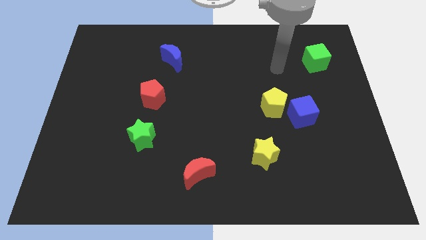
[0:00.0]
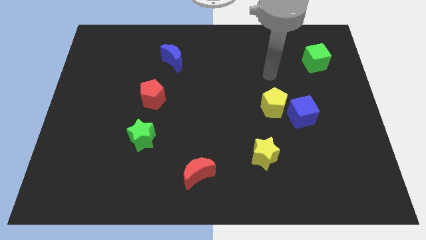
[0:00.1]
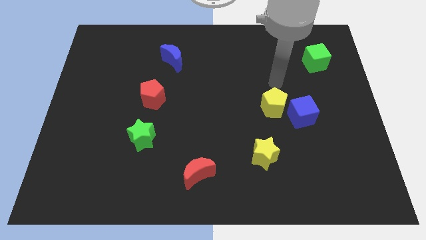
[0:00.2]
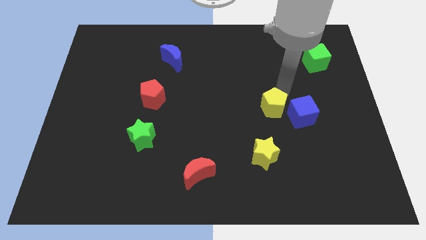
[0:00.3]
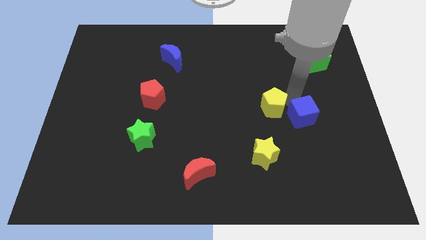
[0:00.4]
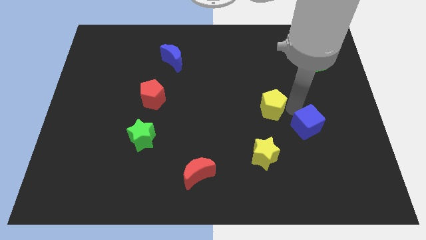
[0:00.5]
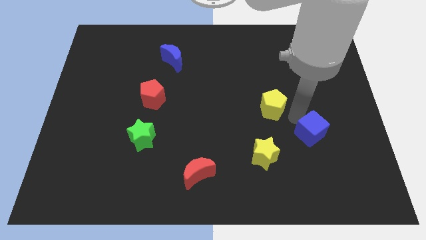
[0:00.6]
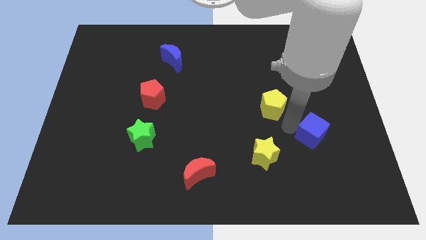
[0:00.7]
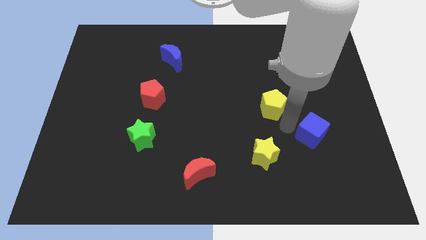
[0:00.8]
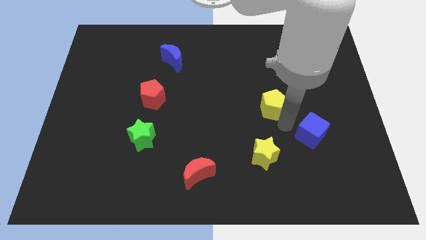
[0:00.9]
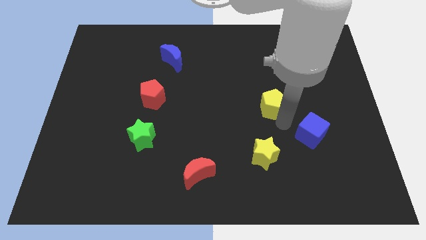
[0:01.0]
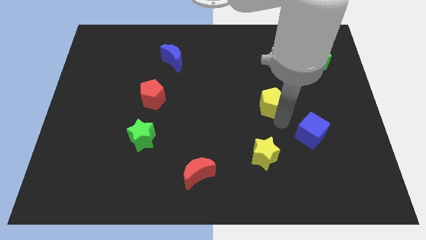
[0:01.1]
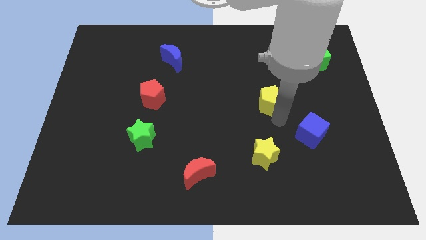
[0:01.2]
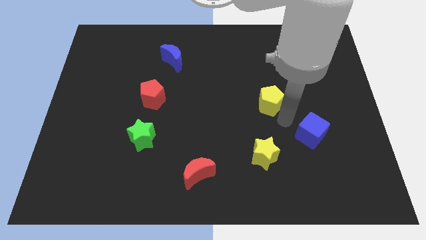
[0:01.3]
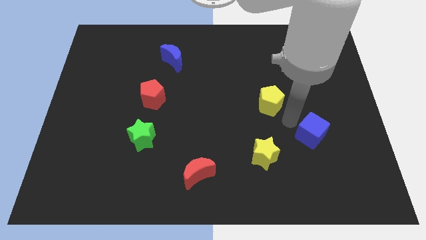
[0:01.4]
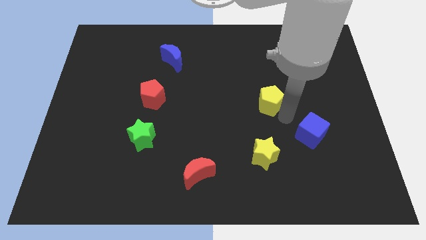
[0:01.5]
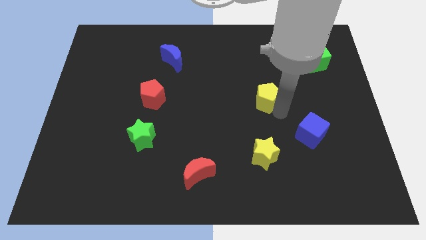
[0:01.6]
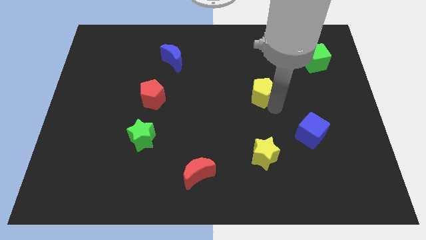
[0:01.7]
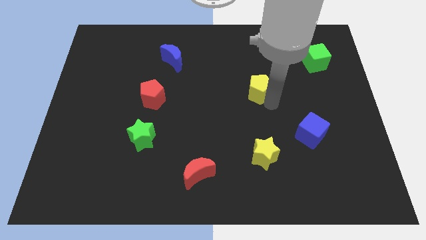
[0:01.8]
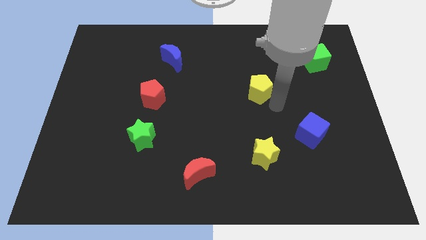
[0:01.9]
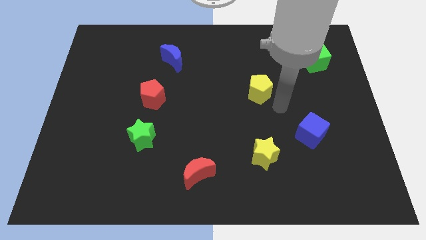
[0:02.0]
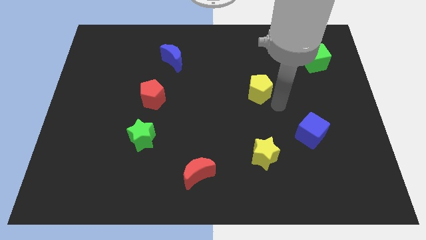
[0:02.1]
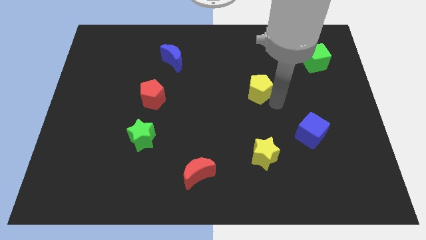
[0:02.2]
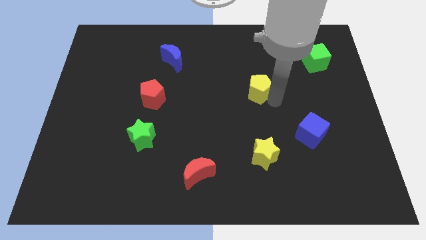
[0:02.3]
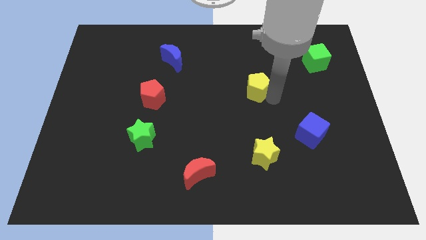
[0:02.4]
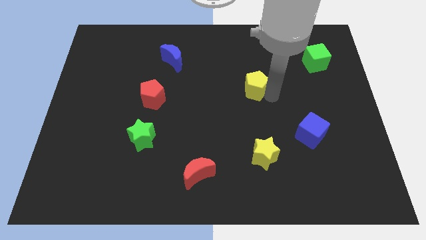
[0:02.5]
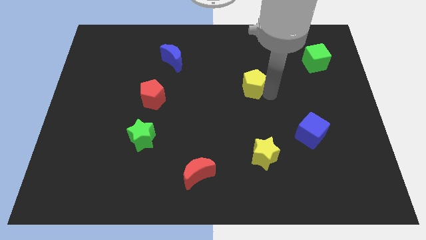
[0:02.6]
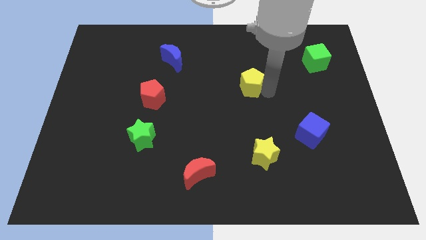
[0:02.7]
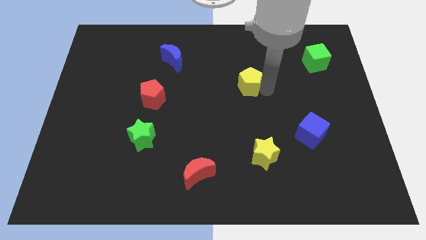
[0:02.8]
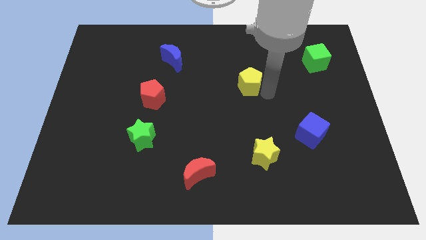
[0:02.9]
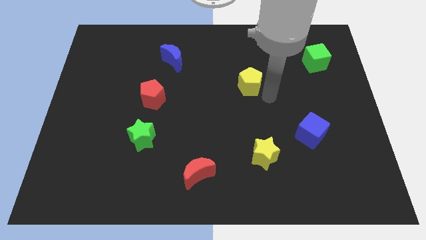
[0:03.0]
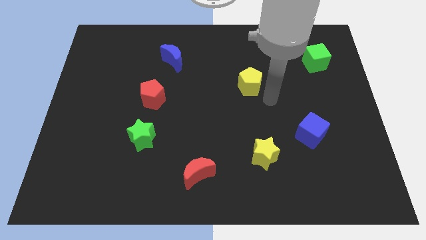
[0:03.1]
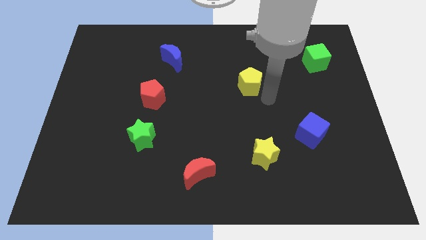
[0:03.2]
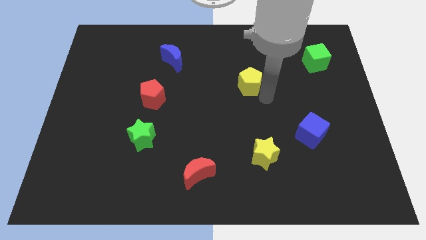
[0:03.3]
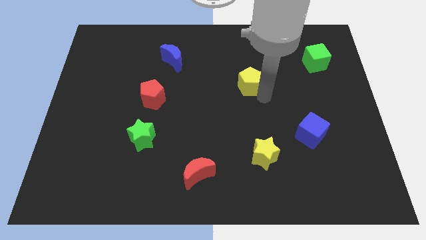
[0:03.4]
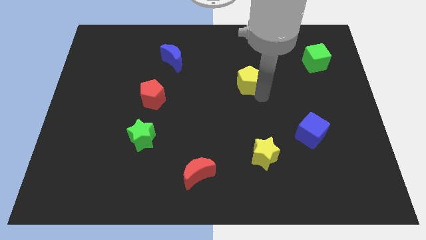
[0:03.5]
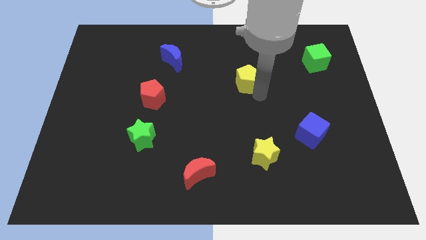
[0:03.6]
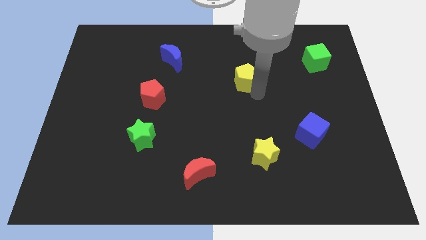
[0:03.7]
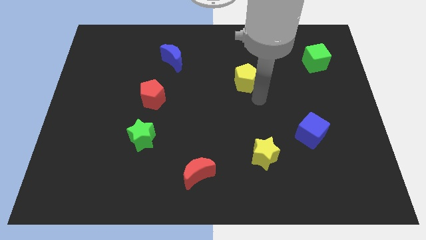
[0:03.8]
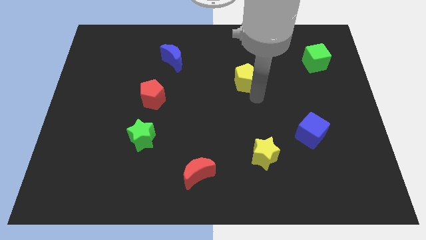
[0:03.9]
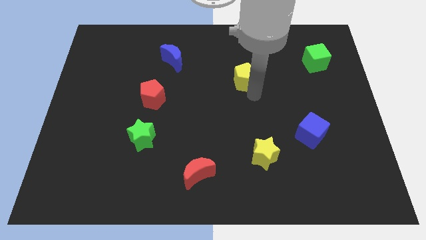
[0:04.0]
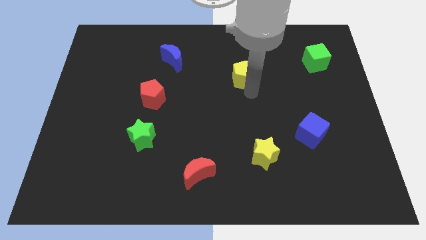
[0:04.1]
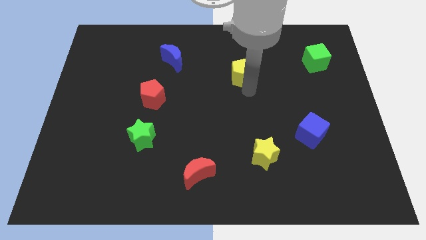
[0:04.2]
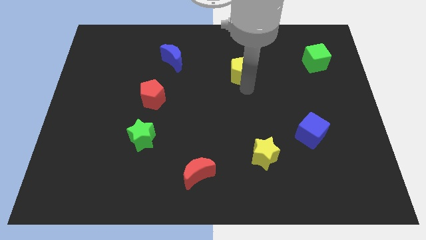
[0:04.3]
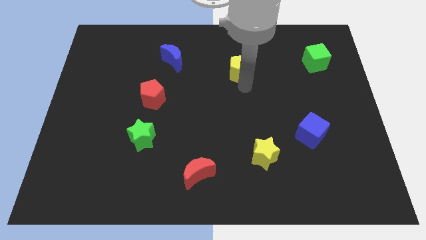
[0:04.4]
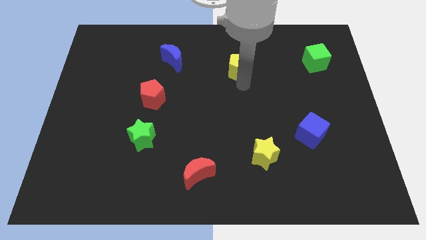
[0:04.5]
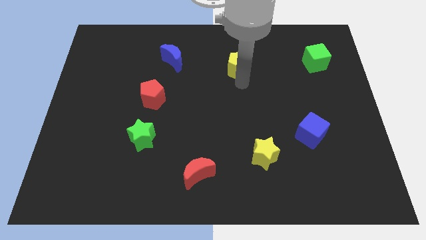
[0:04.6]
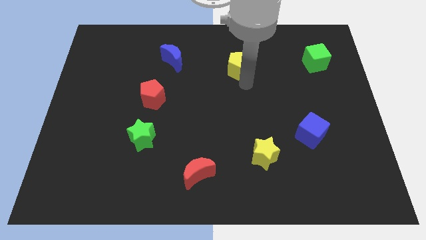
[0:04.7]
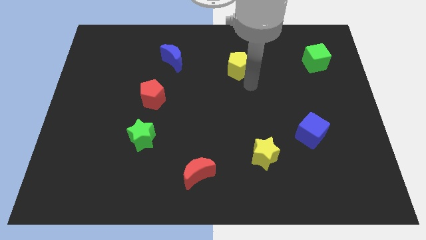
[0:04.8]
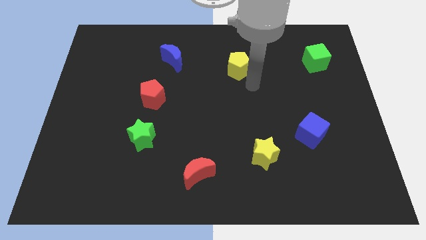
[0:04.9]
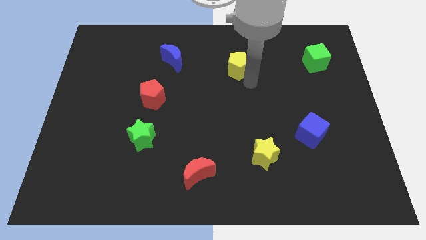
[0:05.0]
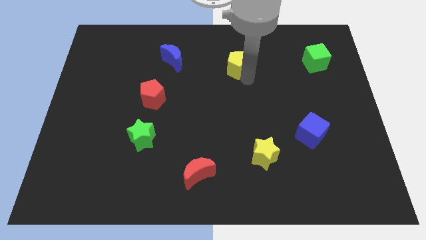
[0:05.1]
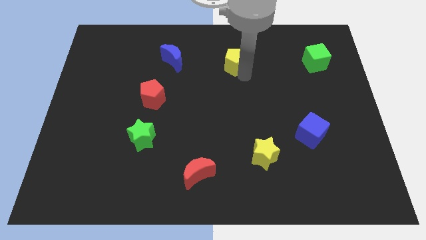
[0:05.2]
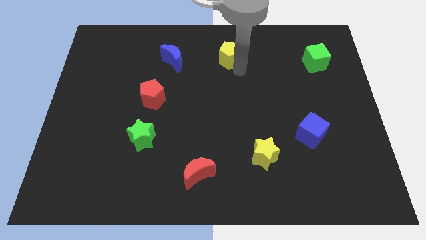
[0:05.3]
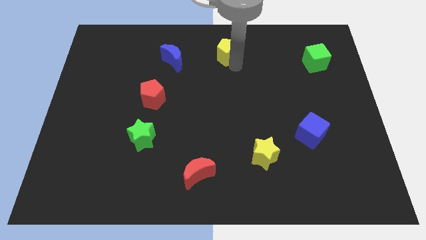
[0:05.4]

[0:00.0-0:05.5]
move the yellow pentagon to the towards your base

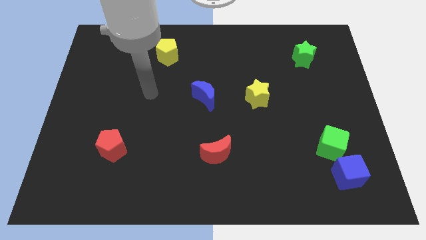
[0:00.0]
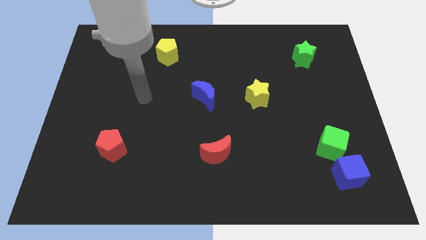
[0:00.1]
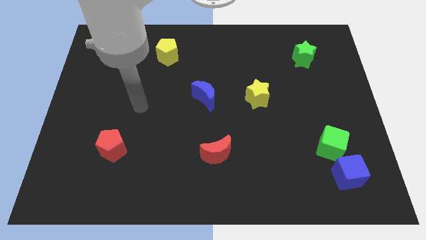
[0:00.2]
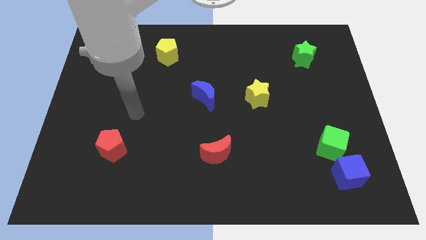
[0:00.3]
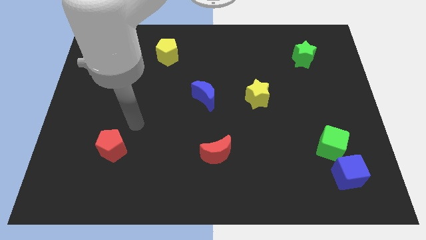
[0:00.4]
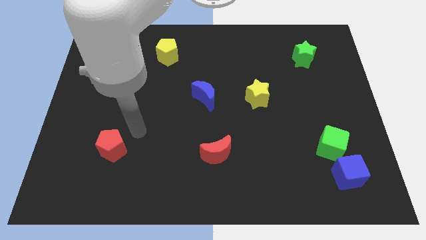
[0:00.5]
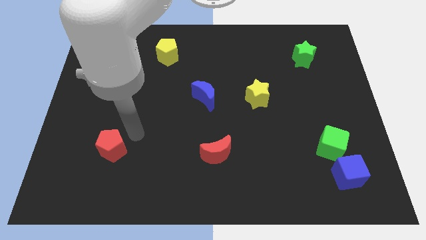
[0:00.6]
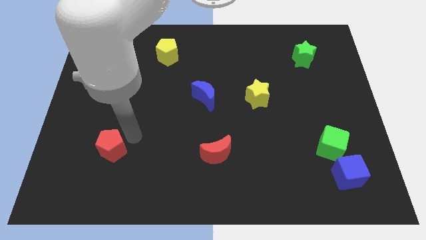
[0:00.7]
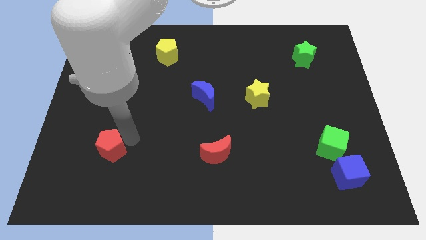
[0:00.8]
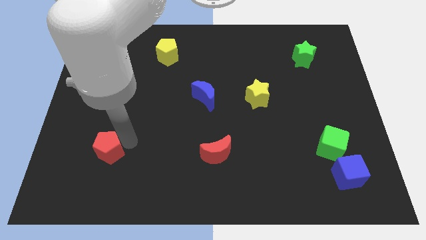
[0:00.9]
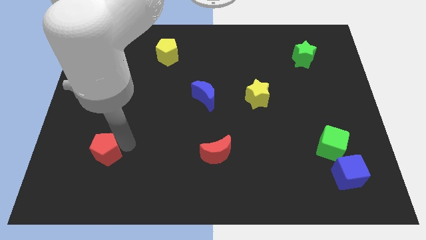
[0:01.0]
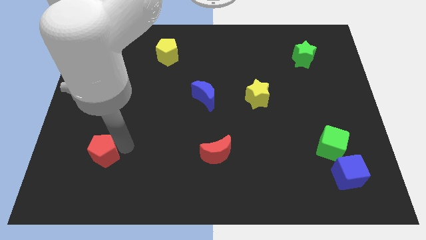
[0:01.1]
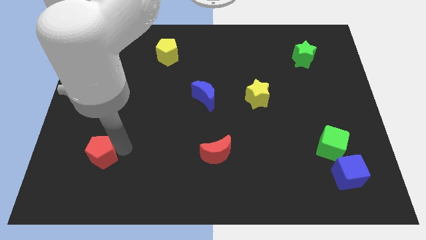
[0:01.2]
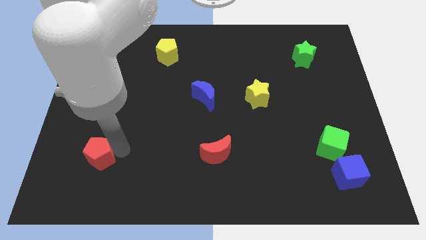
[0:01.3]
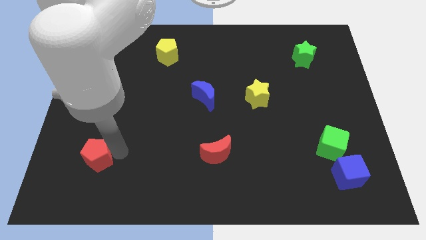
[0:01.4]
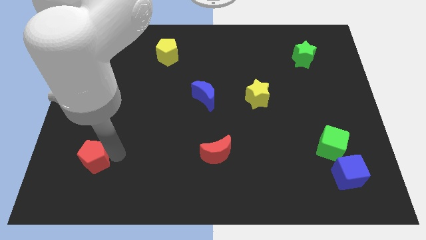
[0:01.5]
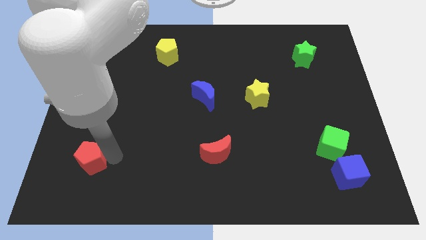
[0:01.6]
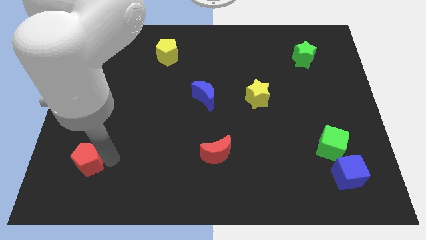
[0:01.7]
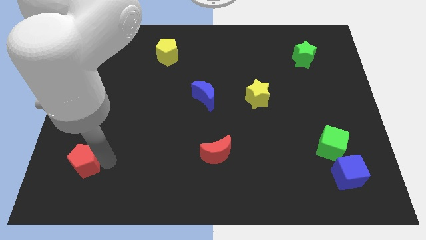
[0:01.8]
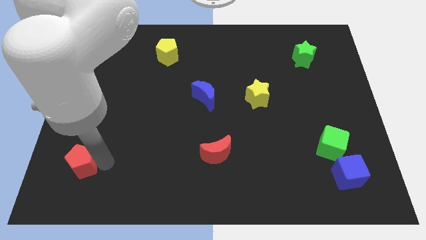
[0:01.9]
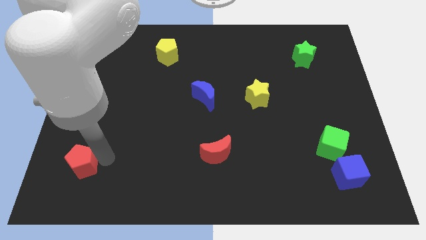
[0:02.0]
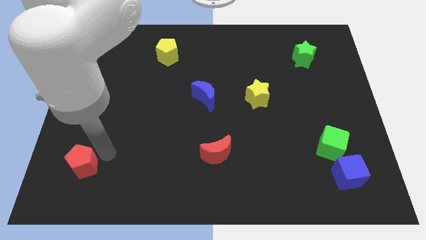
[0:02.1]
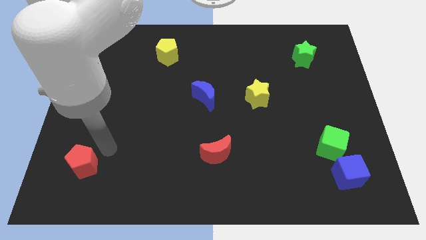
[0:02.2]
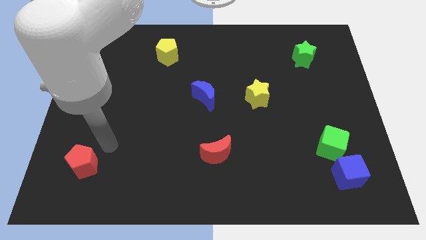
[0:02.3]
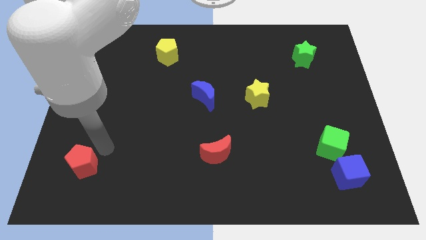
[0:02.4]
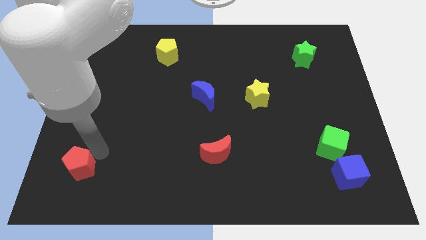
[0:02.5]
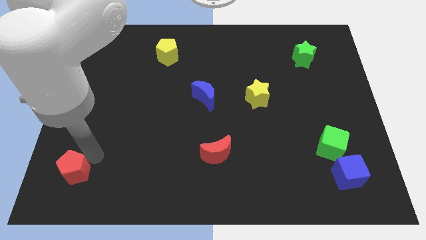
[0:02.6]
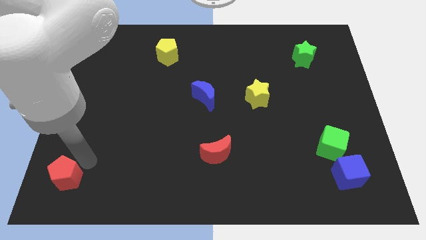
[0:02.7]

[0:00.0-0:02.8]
put the red pentagon to the lower left corner
